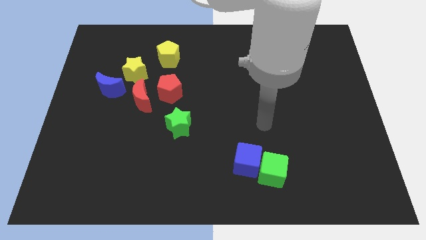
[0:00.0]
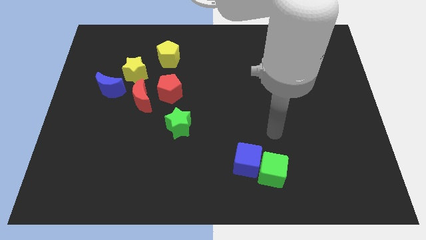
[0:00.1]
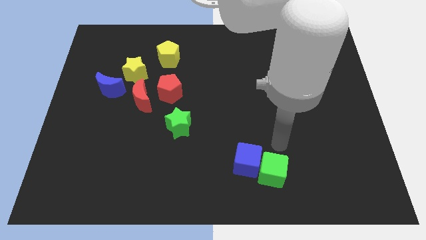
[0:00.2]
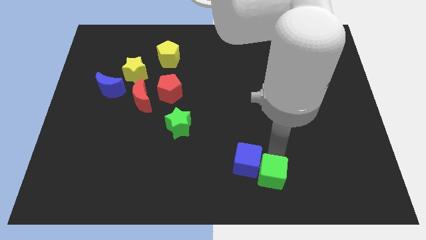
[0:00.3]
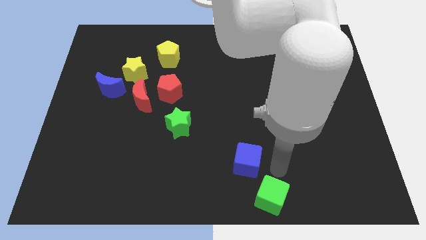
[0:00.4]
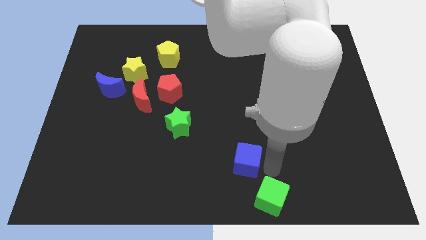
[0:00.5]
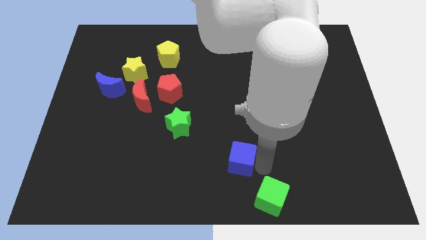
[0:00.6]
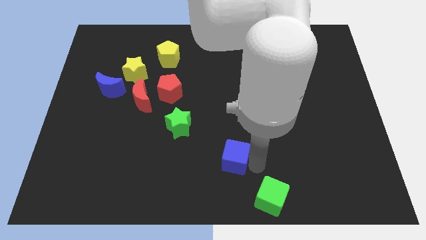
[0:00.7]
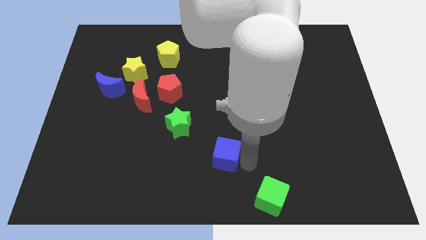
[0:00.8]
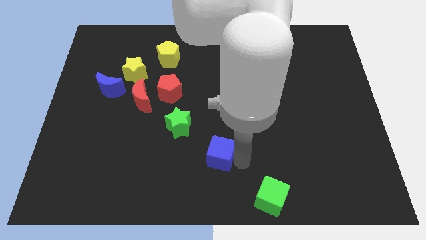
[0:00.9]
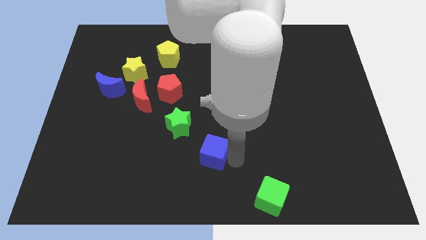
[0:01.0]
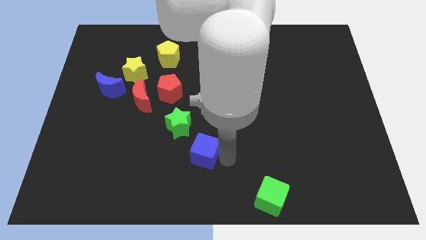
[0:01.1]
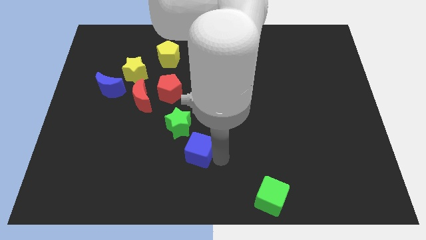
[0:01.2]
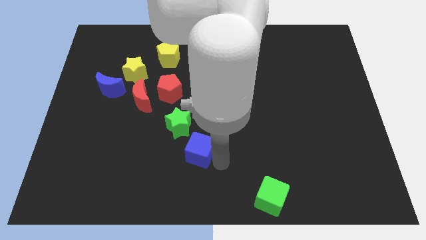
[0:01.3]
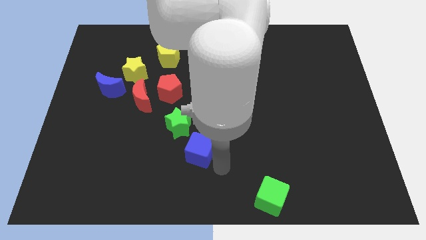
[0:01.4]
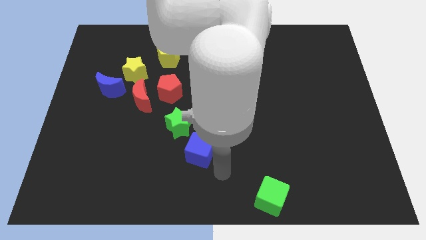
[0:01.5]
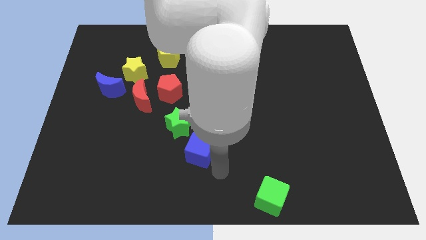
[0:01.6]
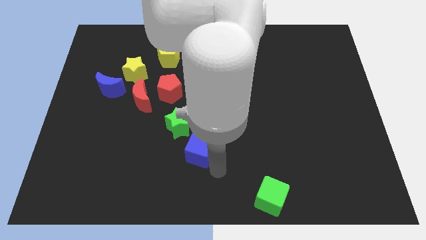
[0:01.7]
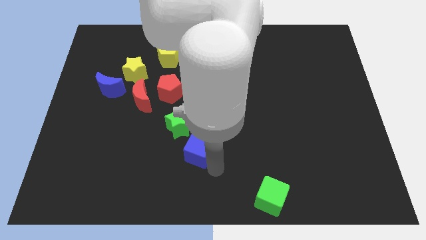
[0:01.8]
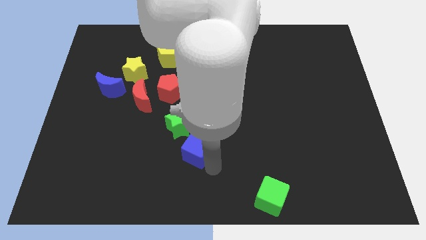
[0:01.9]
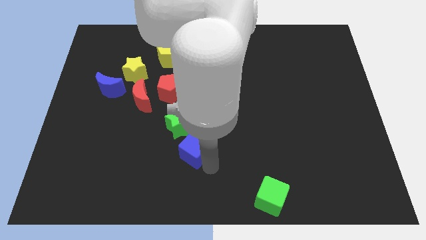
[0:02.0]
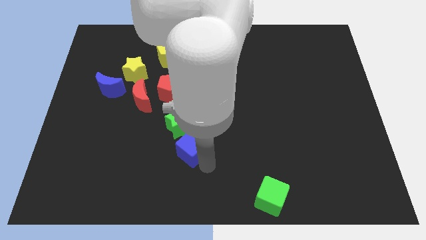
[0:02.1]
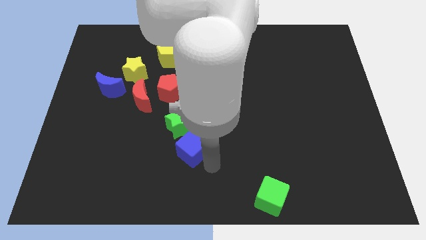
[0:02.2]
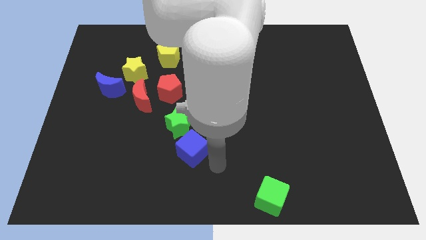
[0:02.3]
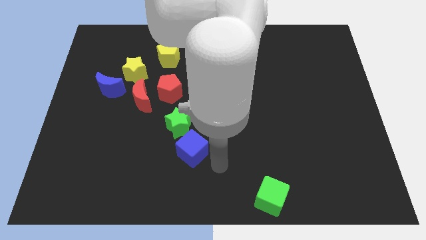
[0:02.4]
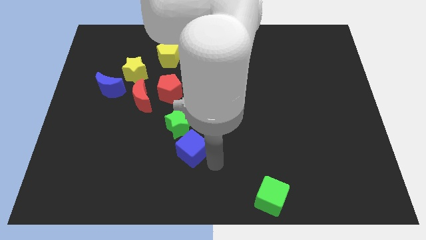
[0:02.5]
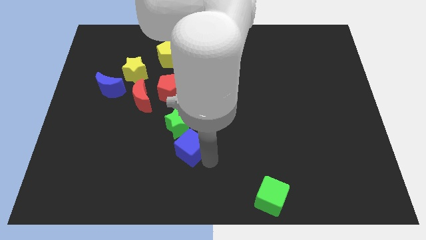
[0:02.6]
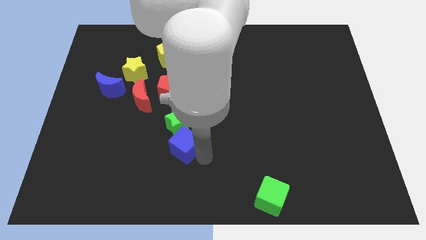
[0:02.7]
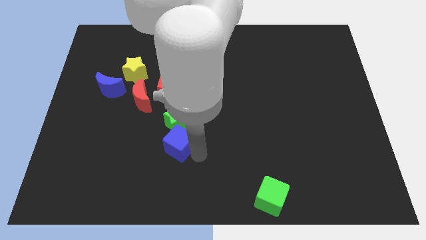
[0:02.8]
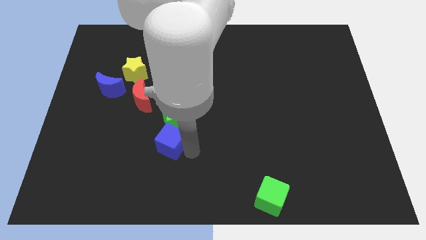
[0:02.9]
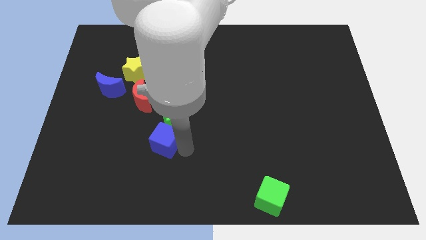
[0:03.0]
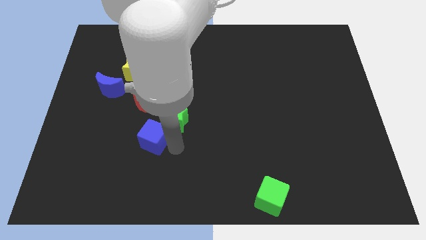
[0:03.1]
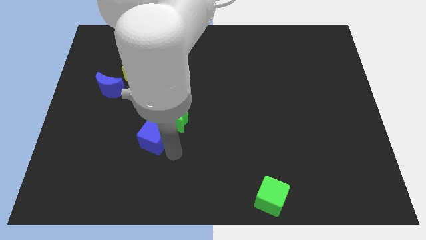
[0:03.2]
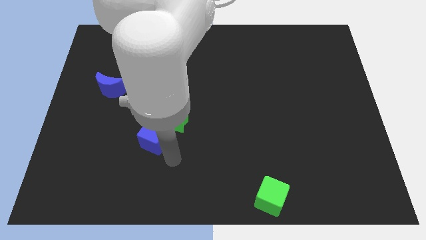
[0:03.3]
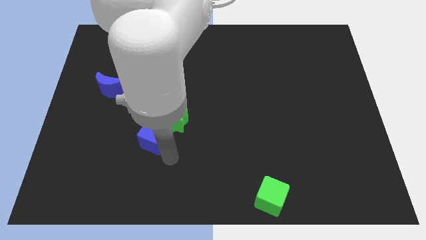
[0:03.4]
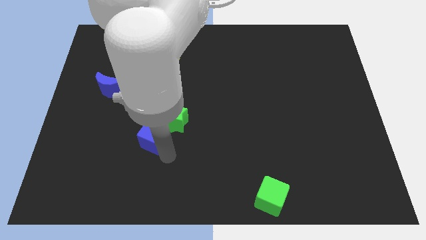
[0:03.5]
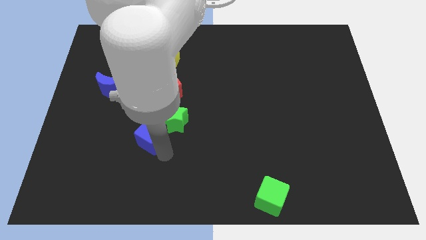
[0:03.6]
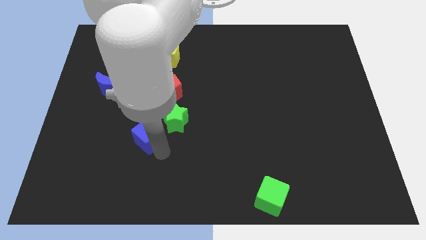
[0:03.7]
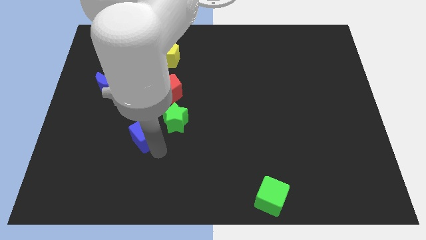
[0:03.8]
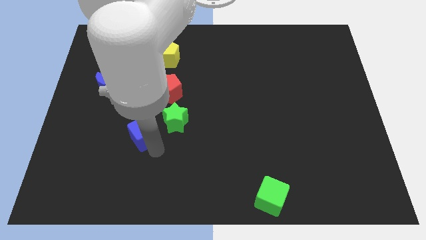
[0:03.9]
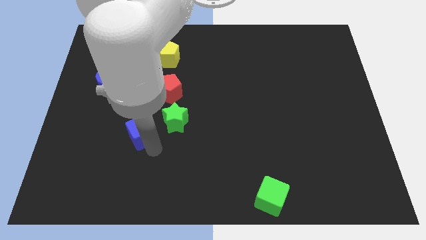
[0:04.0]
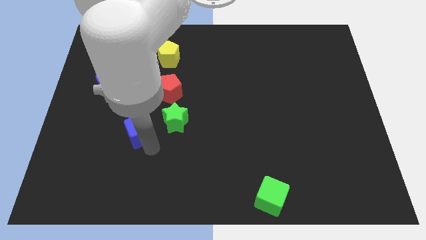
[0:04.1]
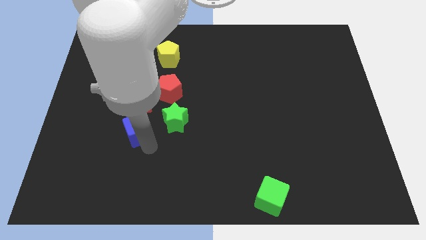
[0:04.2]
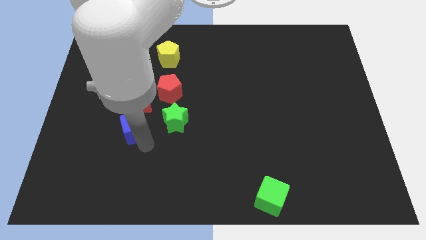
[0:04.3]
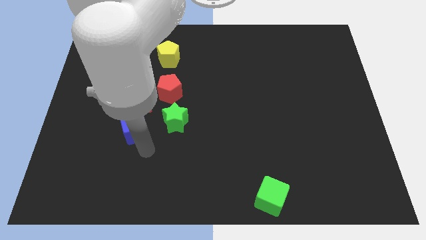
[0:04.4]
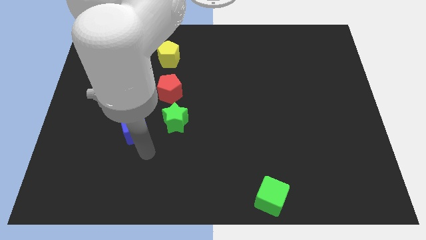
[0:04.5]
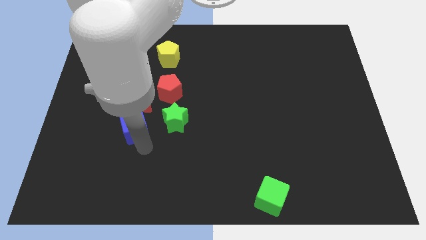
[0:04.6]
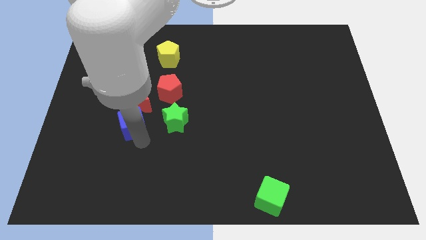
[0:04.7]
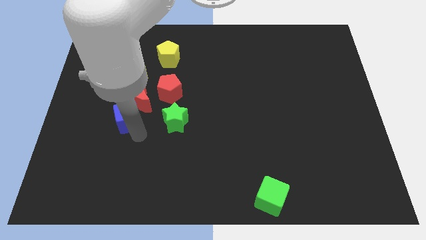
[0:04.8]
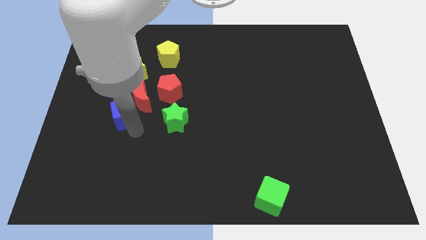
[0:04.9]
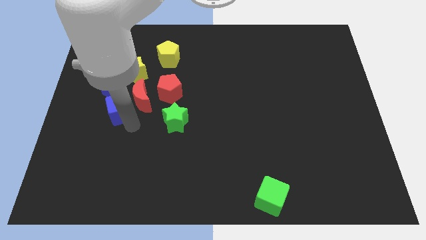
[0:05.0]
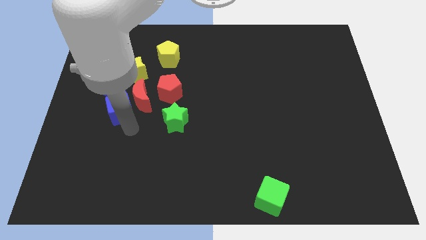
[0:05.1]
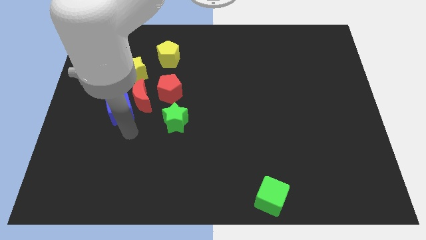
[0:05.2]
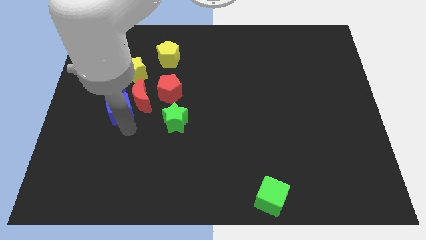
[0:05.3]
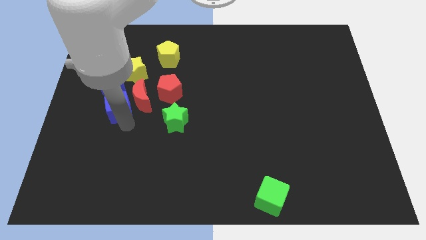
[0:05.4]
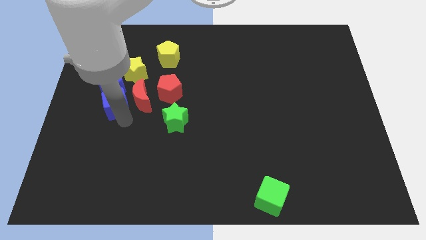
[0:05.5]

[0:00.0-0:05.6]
put the blue cube next to the blue moon

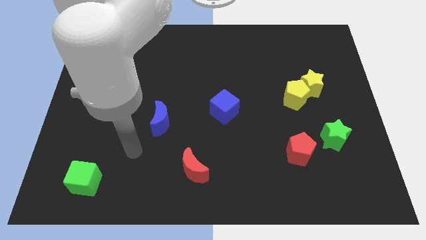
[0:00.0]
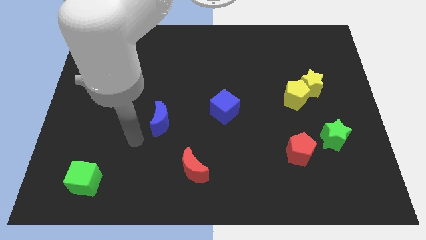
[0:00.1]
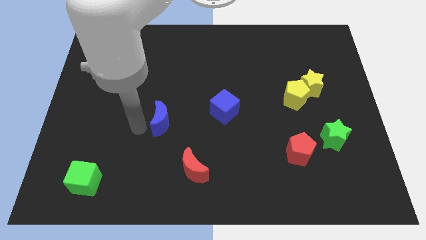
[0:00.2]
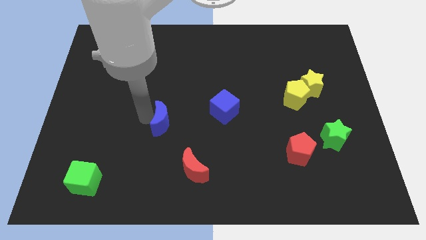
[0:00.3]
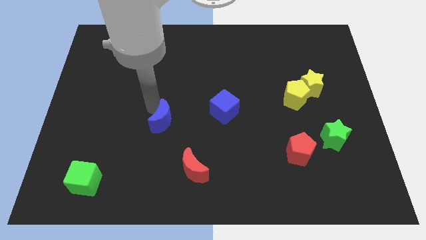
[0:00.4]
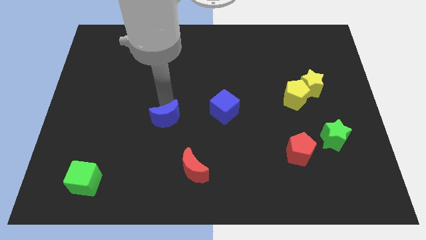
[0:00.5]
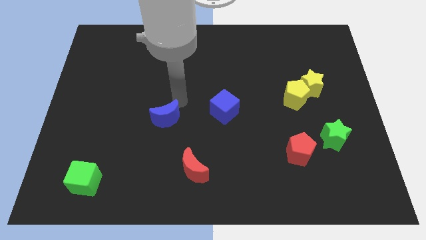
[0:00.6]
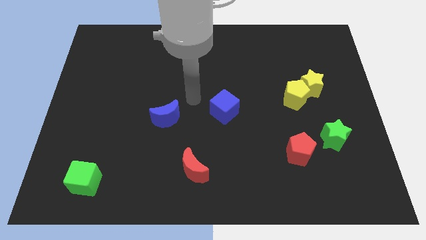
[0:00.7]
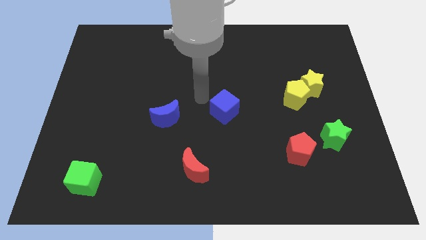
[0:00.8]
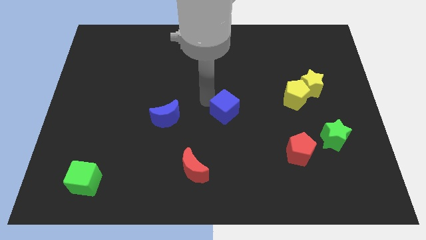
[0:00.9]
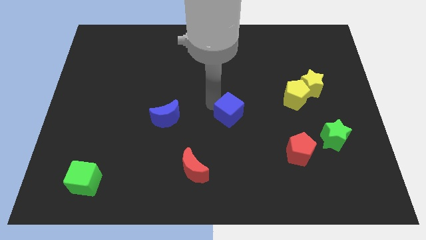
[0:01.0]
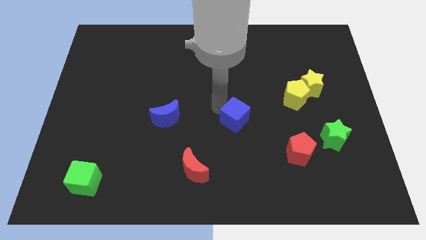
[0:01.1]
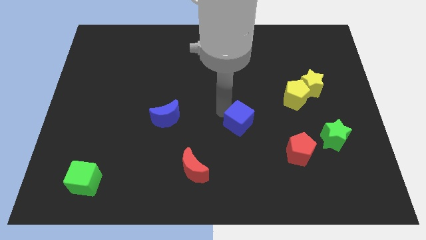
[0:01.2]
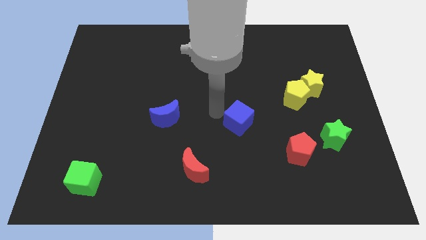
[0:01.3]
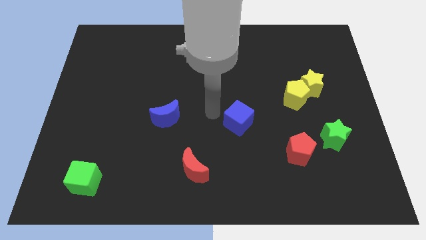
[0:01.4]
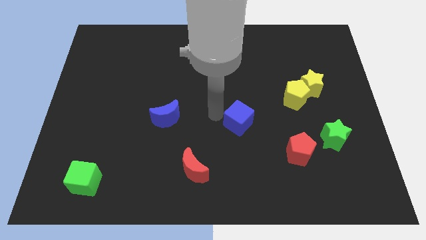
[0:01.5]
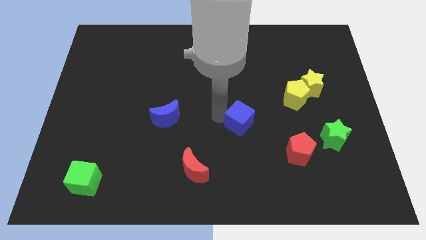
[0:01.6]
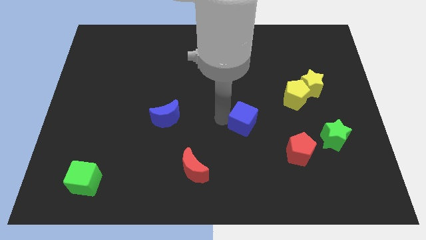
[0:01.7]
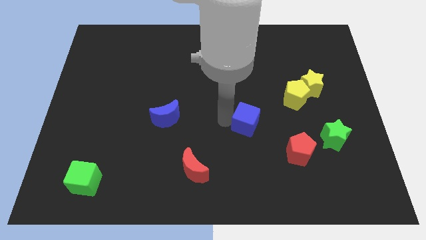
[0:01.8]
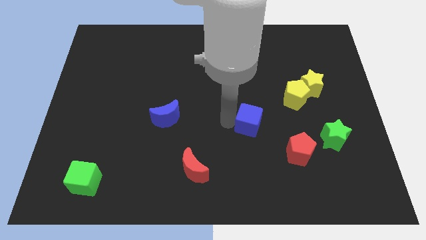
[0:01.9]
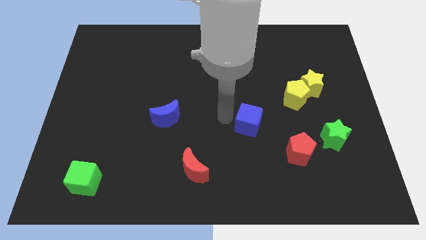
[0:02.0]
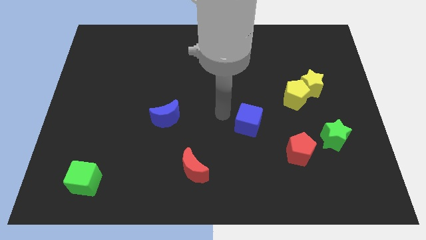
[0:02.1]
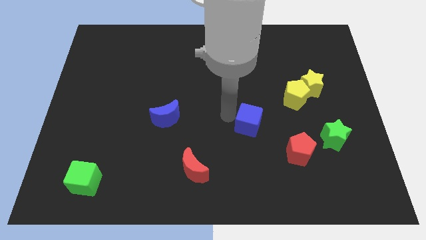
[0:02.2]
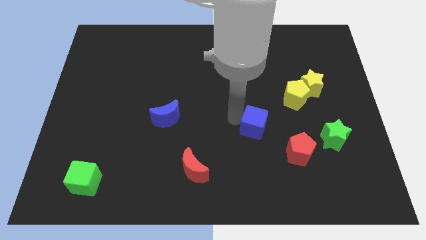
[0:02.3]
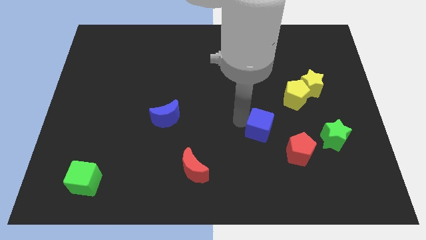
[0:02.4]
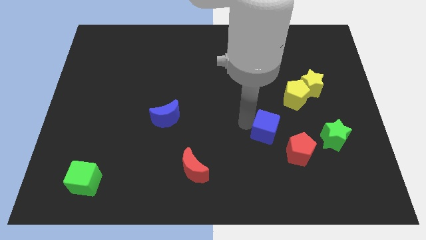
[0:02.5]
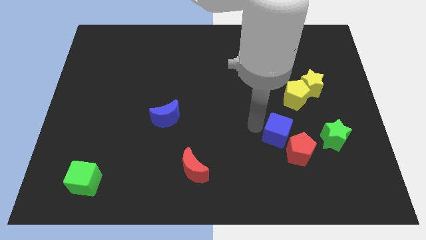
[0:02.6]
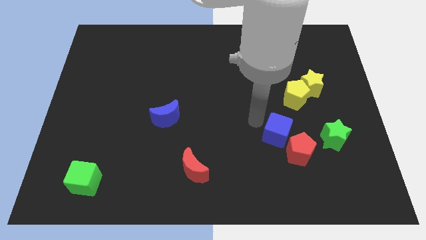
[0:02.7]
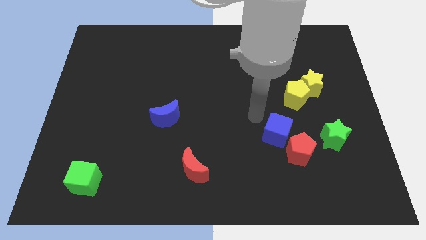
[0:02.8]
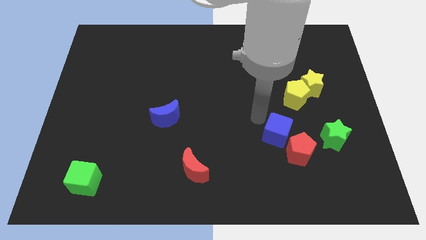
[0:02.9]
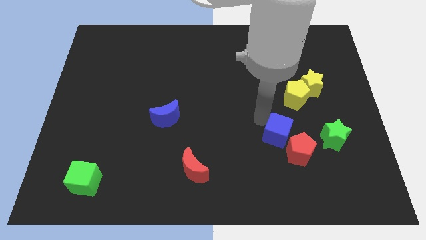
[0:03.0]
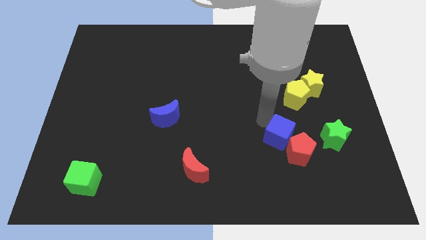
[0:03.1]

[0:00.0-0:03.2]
slide the blue cube next to the red pentagon
